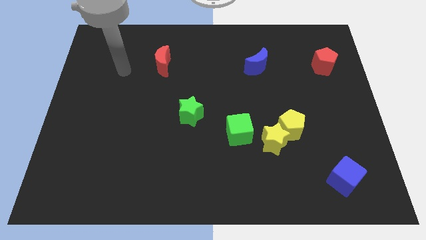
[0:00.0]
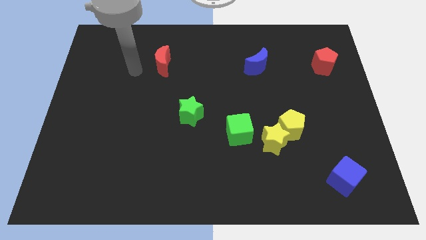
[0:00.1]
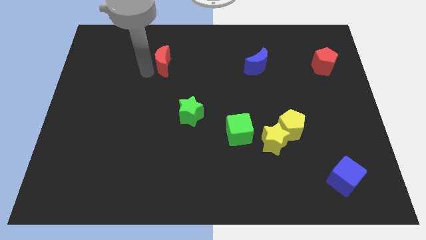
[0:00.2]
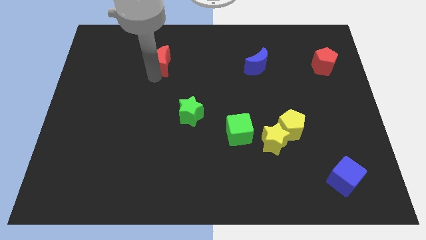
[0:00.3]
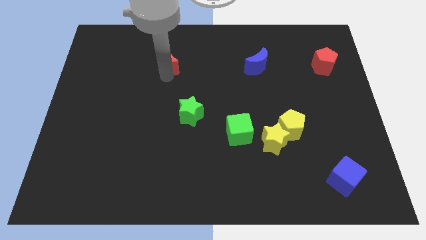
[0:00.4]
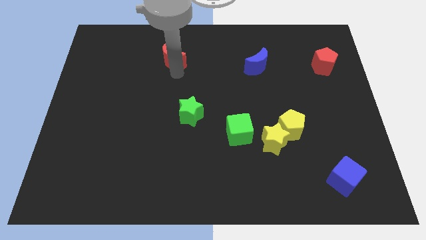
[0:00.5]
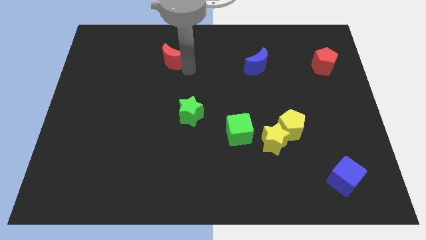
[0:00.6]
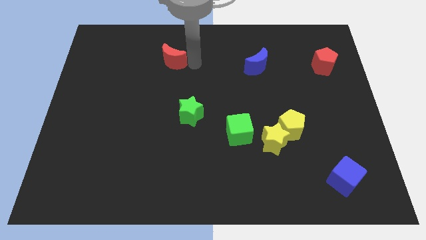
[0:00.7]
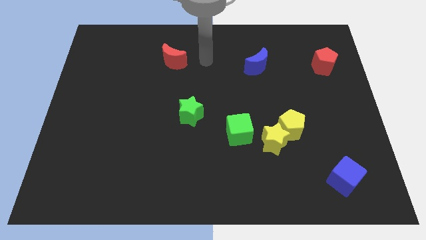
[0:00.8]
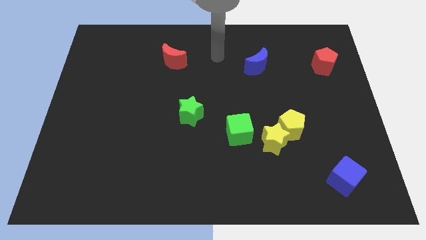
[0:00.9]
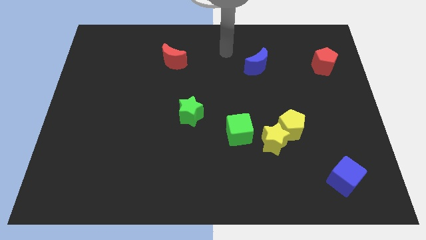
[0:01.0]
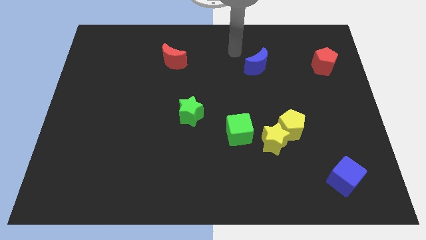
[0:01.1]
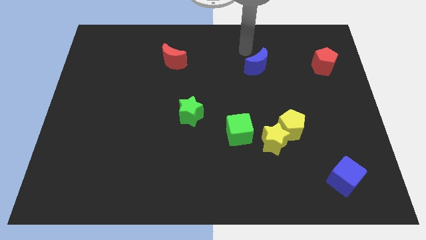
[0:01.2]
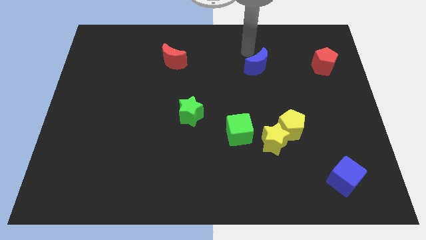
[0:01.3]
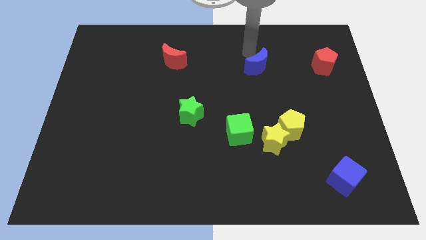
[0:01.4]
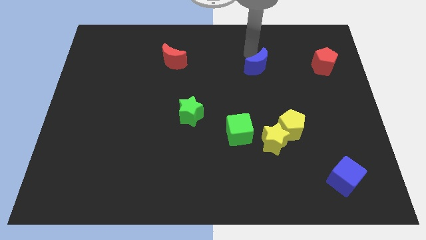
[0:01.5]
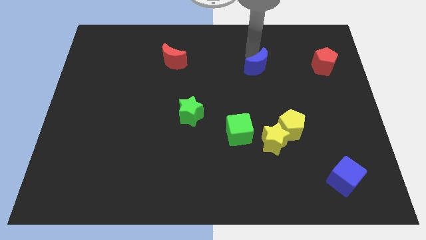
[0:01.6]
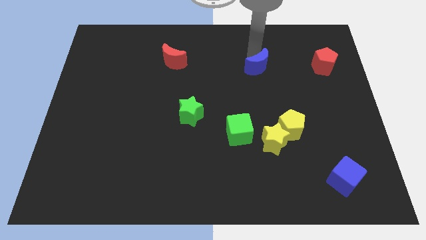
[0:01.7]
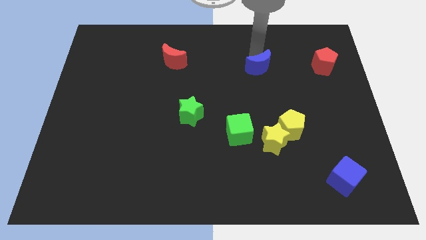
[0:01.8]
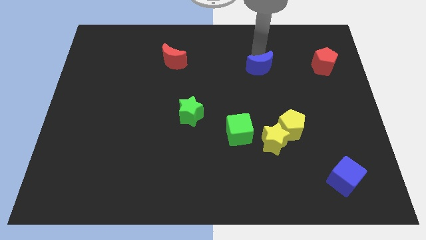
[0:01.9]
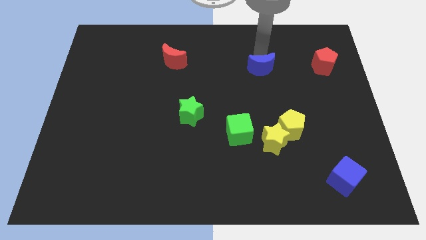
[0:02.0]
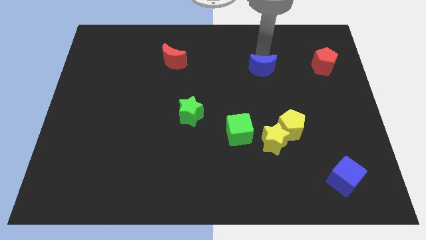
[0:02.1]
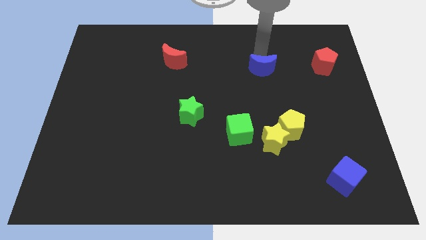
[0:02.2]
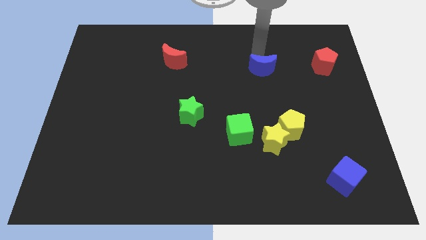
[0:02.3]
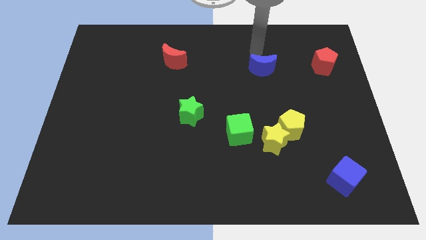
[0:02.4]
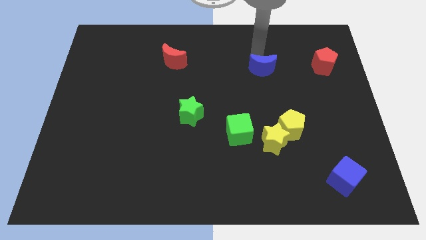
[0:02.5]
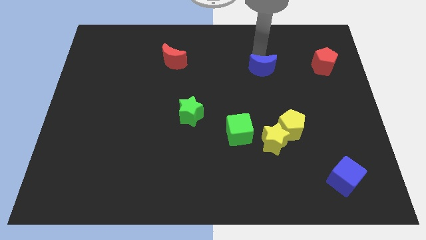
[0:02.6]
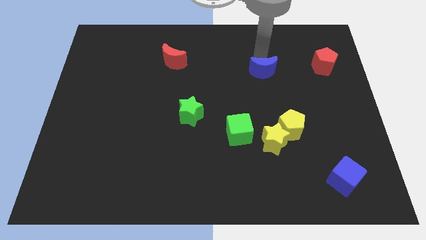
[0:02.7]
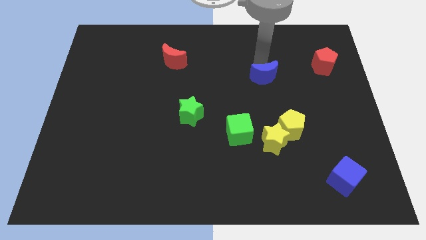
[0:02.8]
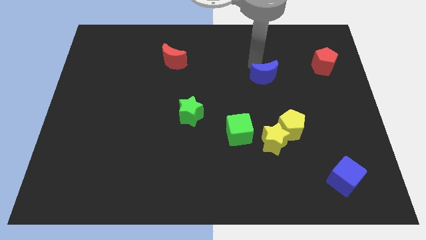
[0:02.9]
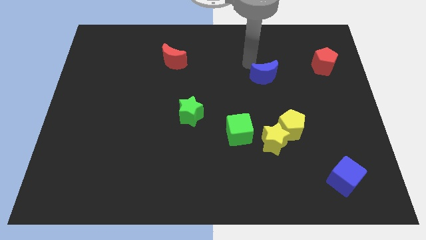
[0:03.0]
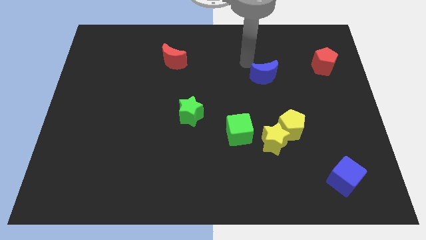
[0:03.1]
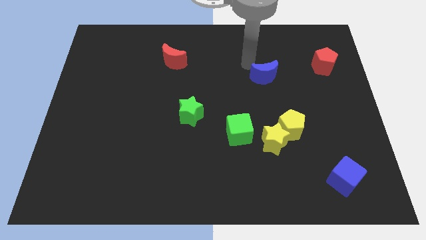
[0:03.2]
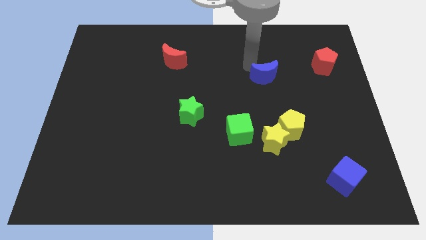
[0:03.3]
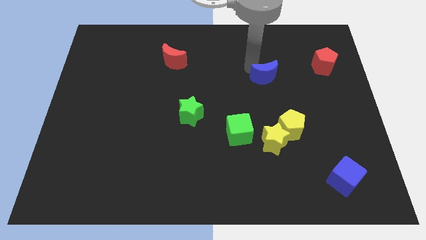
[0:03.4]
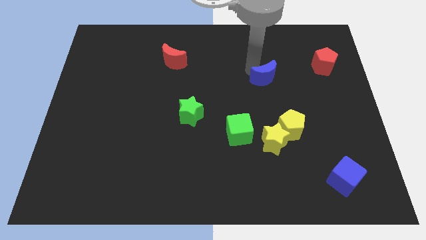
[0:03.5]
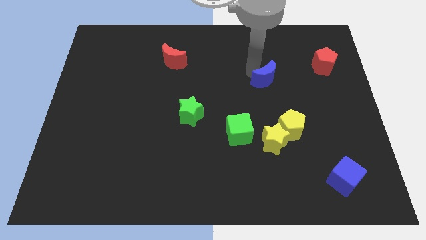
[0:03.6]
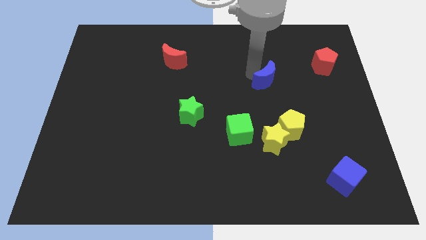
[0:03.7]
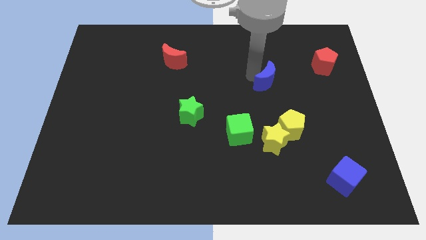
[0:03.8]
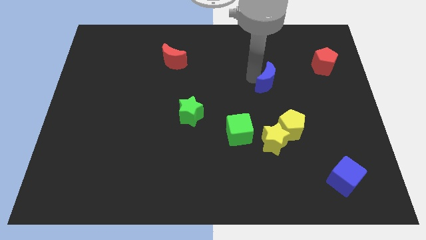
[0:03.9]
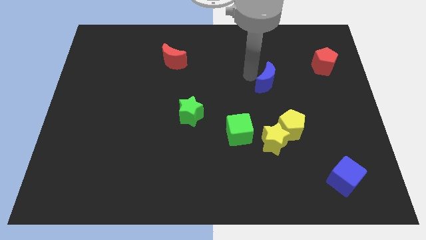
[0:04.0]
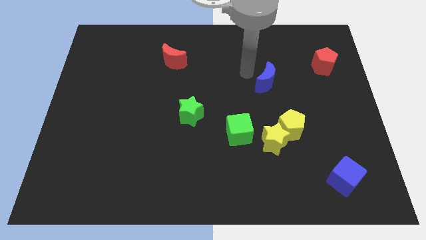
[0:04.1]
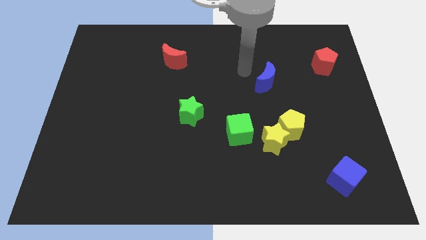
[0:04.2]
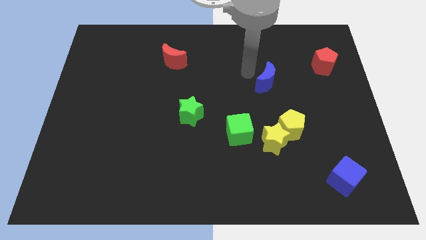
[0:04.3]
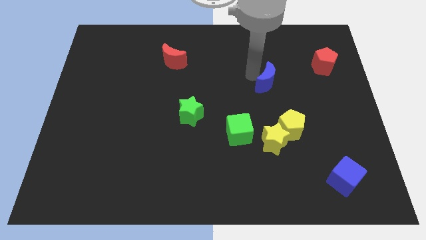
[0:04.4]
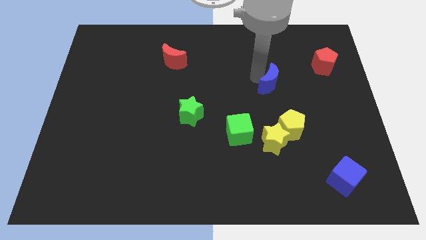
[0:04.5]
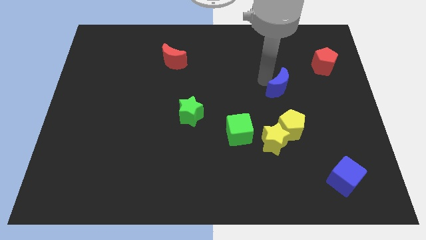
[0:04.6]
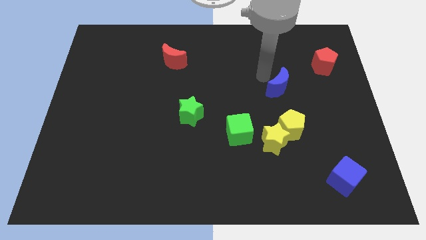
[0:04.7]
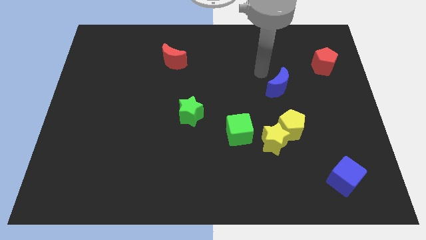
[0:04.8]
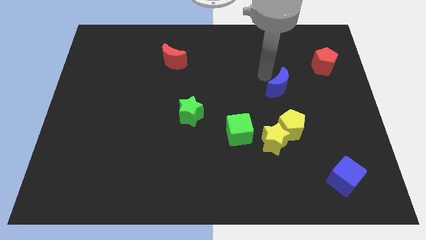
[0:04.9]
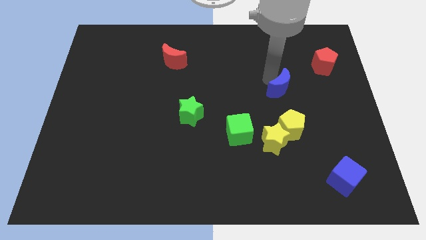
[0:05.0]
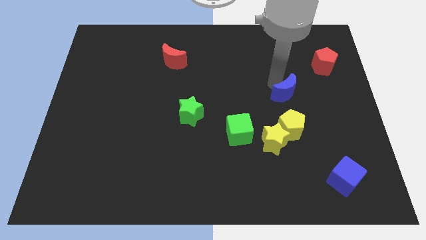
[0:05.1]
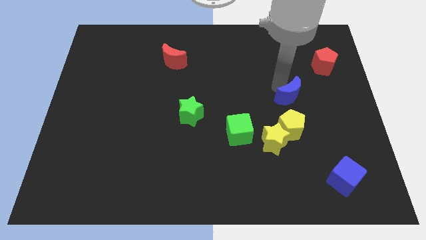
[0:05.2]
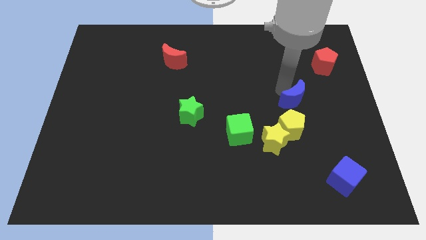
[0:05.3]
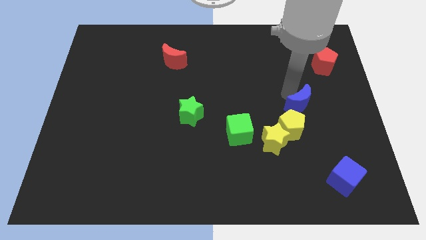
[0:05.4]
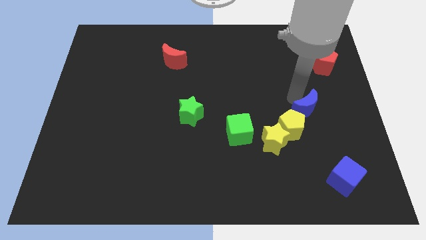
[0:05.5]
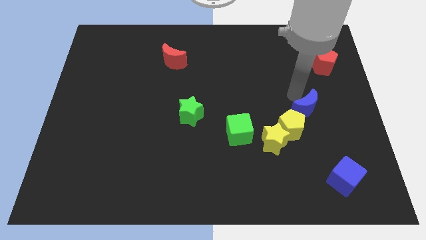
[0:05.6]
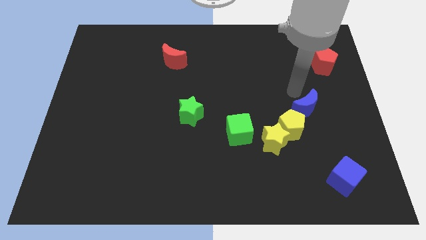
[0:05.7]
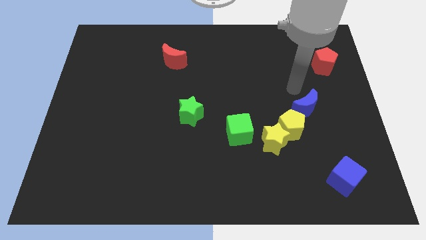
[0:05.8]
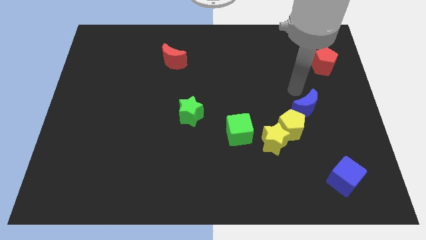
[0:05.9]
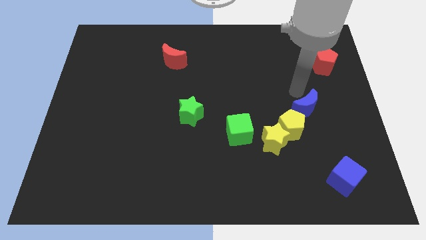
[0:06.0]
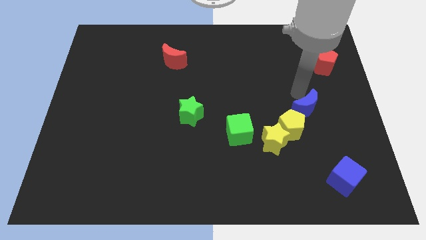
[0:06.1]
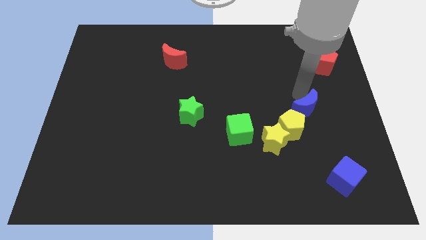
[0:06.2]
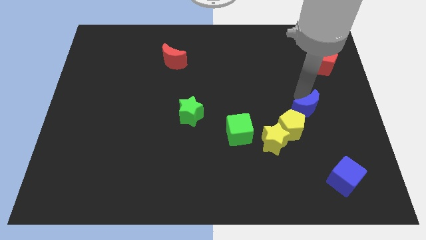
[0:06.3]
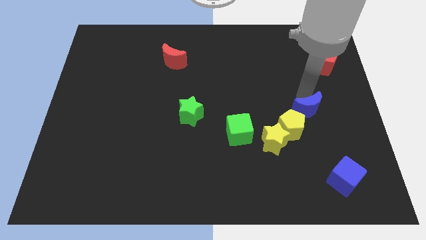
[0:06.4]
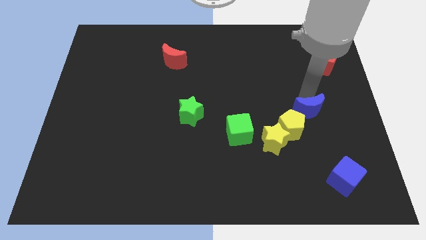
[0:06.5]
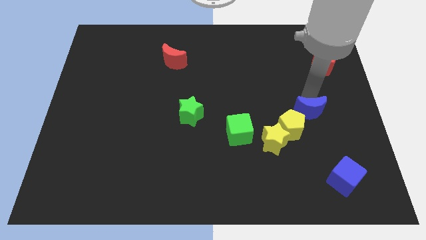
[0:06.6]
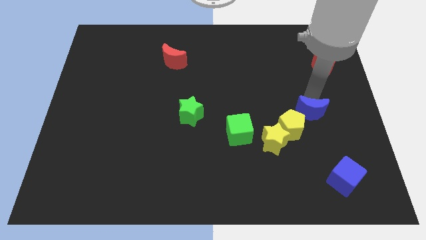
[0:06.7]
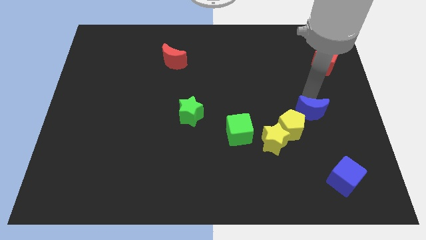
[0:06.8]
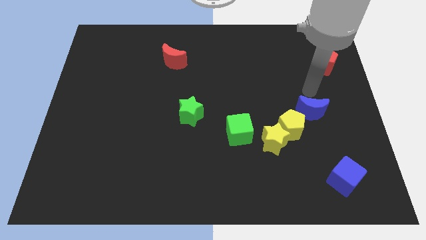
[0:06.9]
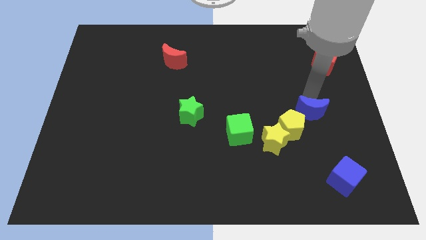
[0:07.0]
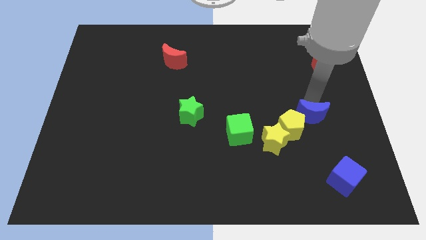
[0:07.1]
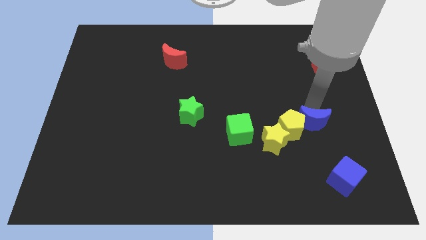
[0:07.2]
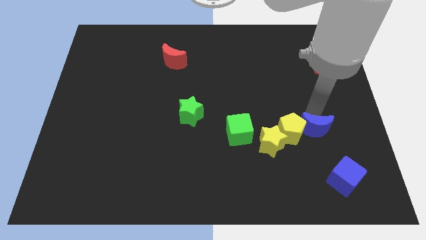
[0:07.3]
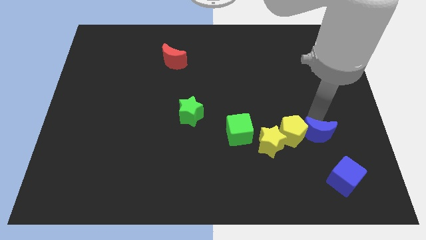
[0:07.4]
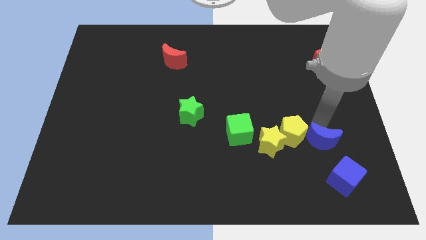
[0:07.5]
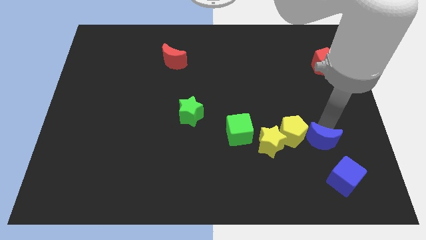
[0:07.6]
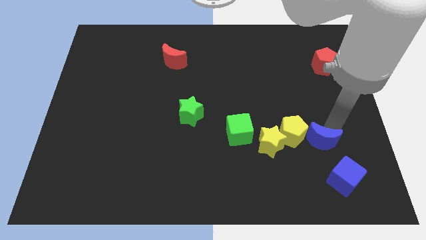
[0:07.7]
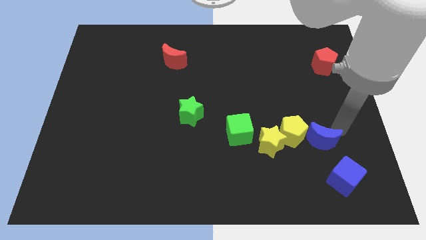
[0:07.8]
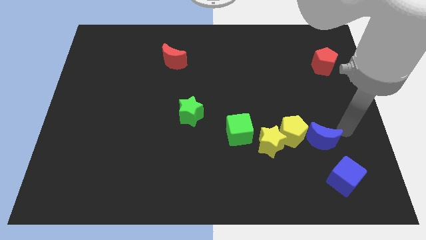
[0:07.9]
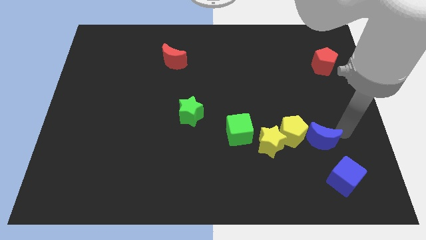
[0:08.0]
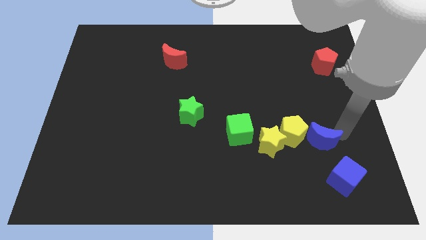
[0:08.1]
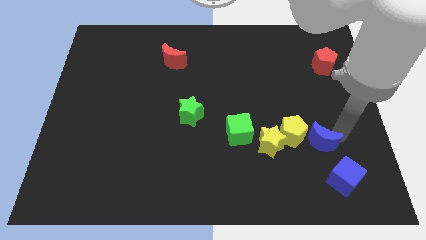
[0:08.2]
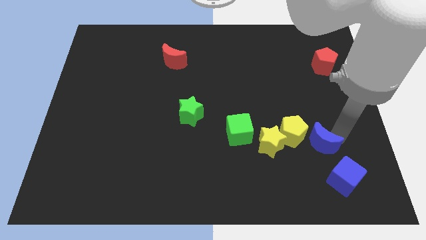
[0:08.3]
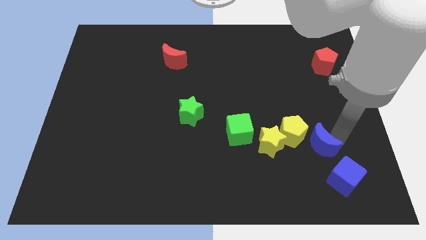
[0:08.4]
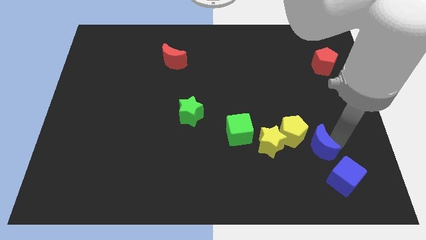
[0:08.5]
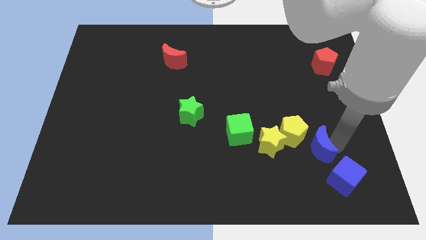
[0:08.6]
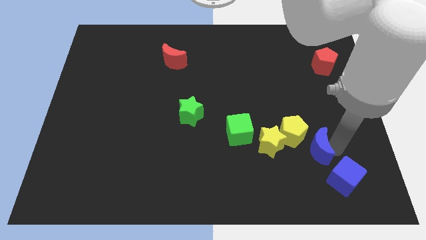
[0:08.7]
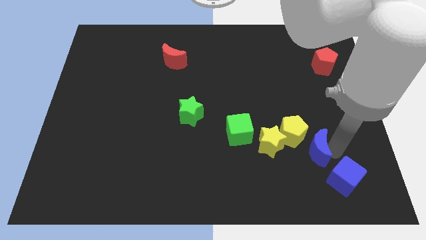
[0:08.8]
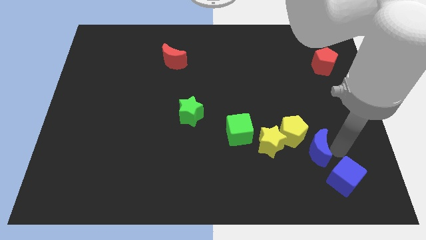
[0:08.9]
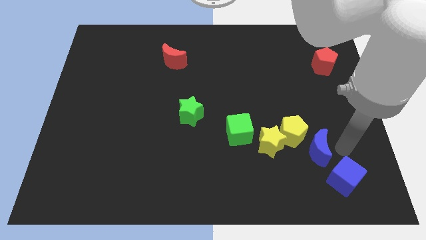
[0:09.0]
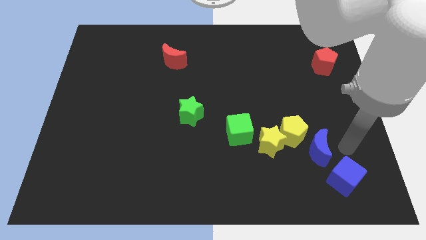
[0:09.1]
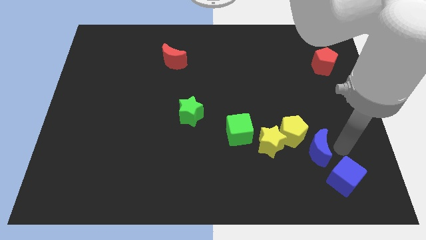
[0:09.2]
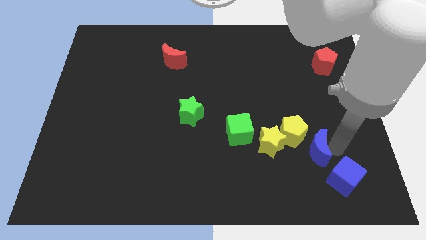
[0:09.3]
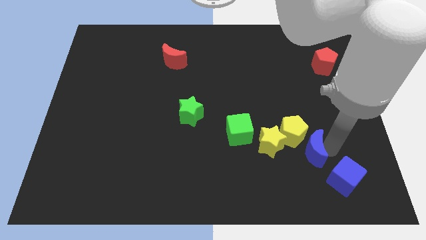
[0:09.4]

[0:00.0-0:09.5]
slide the blue moon downwards
